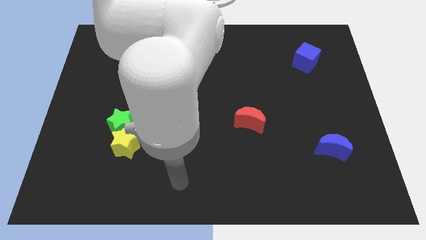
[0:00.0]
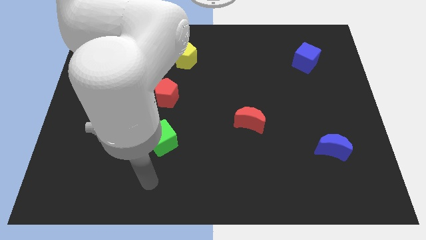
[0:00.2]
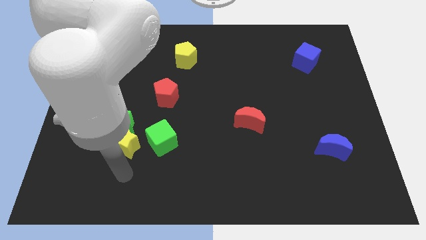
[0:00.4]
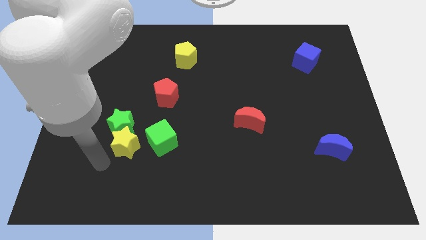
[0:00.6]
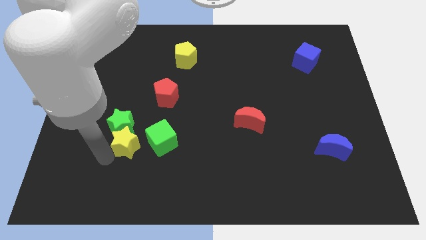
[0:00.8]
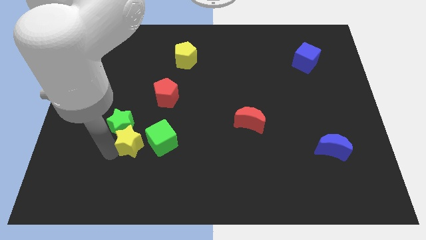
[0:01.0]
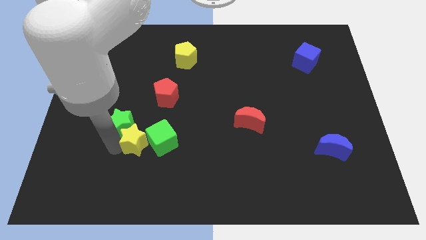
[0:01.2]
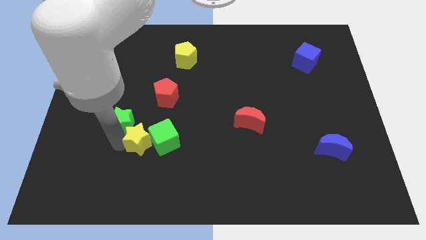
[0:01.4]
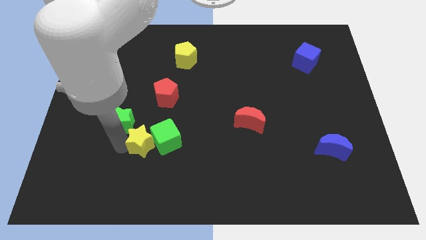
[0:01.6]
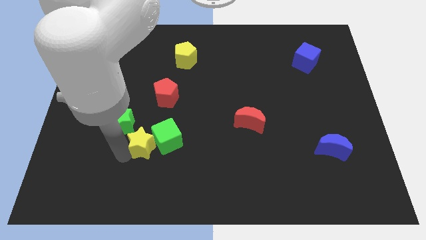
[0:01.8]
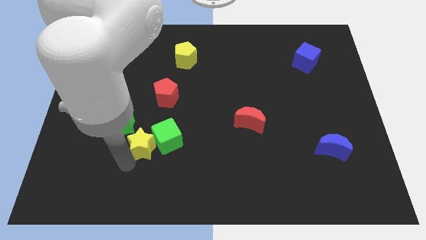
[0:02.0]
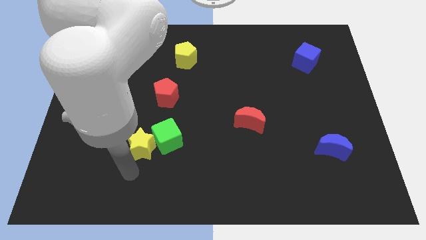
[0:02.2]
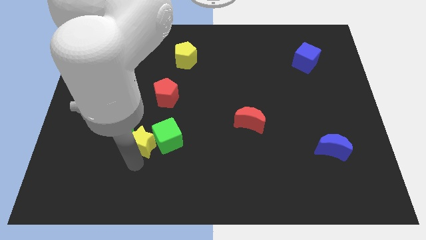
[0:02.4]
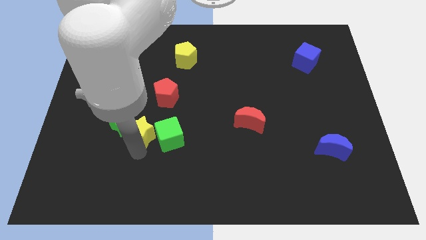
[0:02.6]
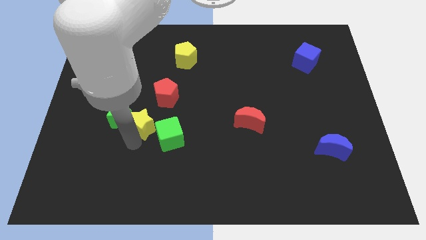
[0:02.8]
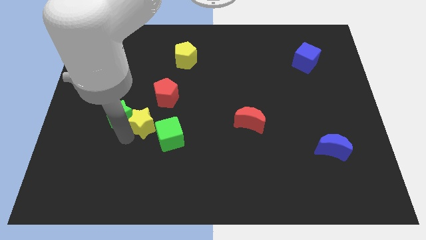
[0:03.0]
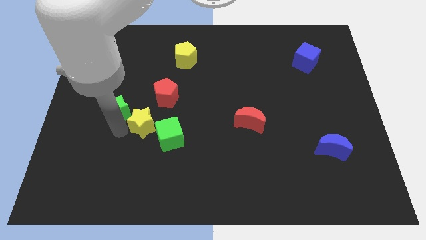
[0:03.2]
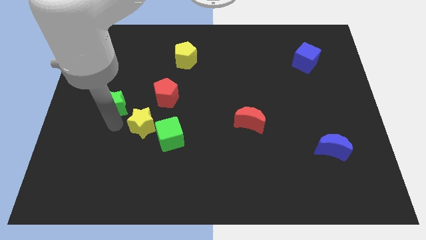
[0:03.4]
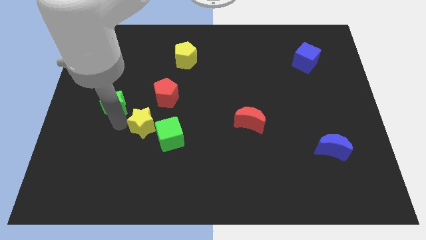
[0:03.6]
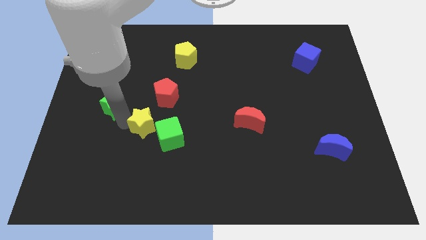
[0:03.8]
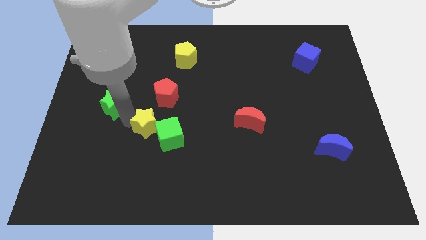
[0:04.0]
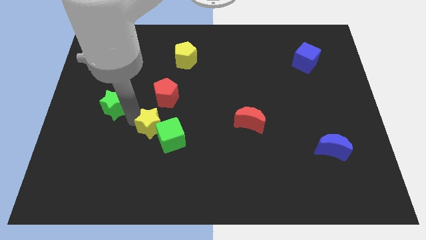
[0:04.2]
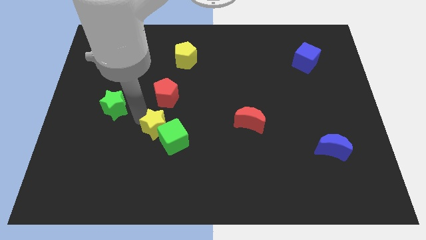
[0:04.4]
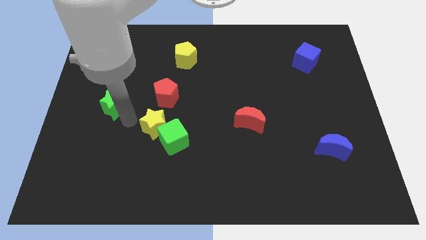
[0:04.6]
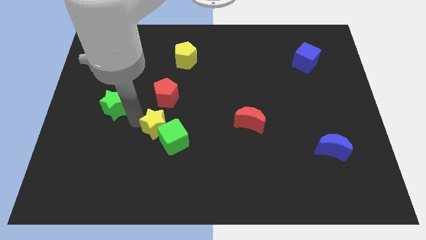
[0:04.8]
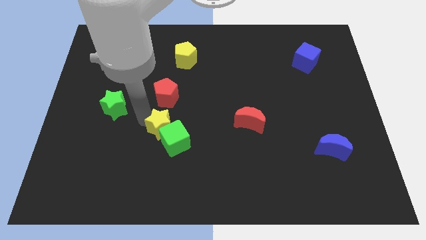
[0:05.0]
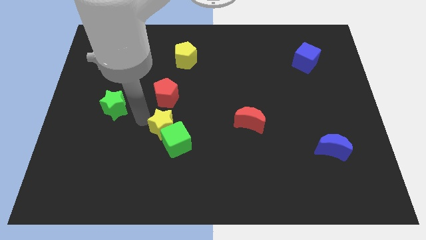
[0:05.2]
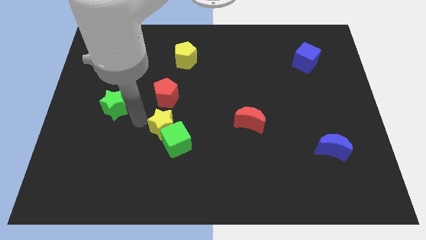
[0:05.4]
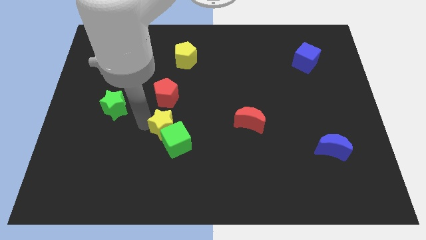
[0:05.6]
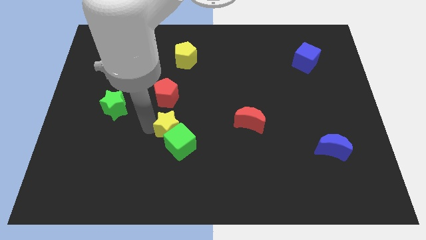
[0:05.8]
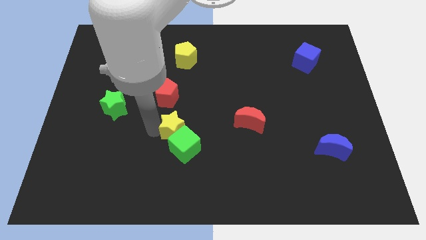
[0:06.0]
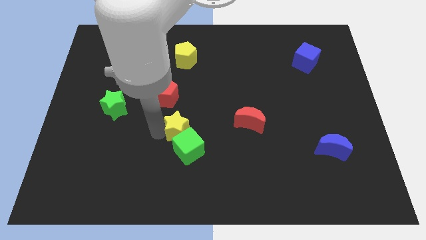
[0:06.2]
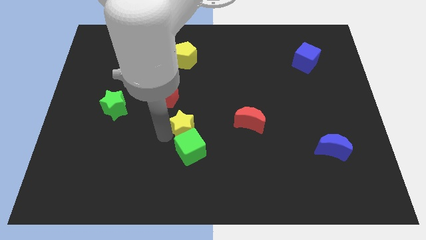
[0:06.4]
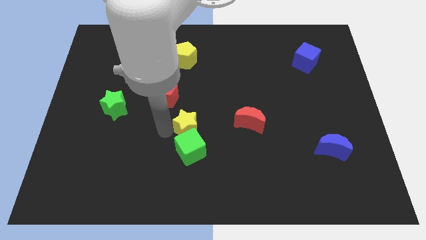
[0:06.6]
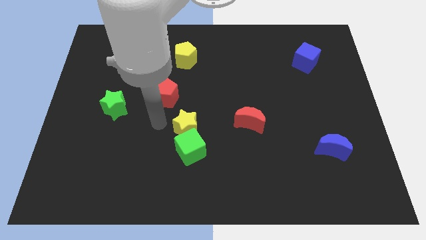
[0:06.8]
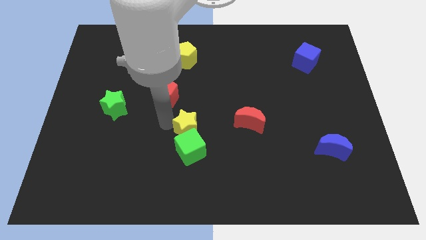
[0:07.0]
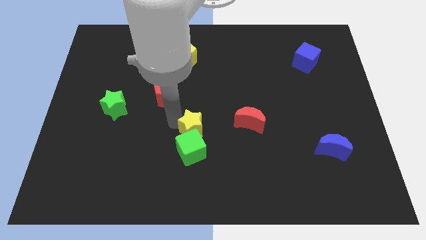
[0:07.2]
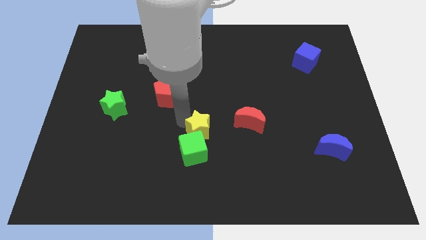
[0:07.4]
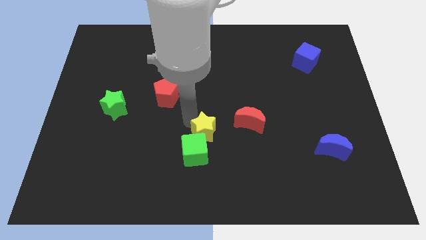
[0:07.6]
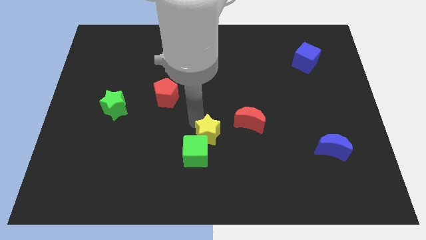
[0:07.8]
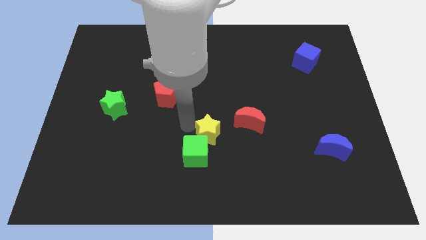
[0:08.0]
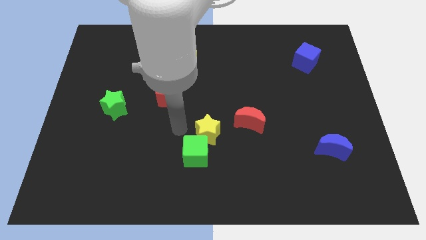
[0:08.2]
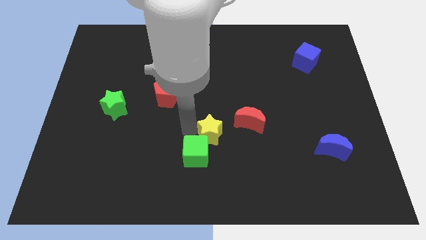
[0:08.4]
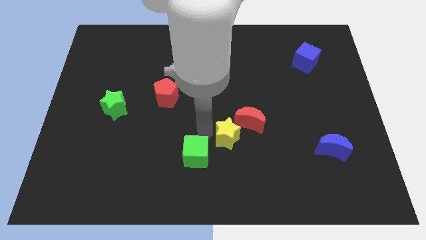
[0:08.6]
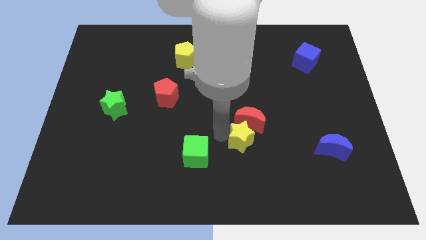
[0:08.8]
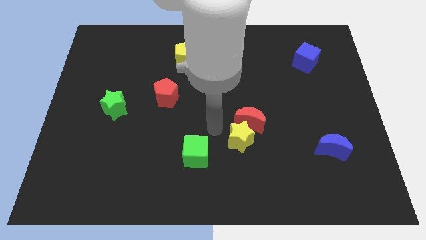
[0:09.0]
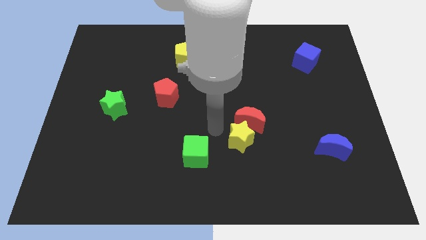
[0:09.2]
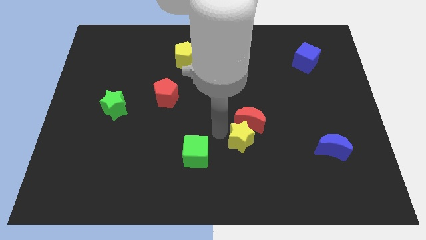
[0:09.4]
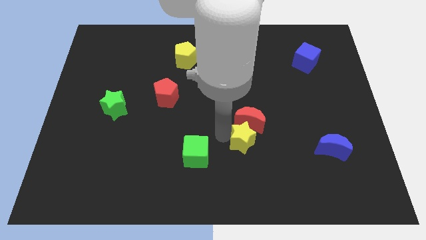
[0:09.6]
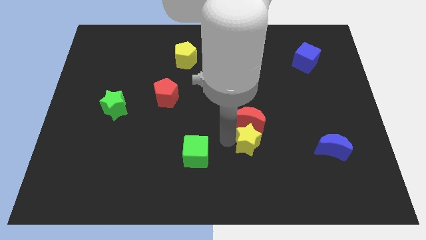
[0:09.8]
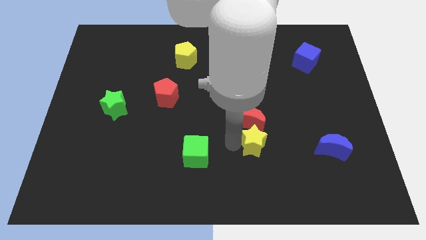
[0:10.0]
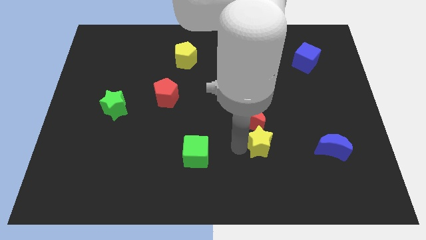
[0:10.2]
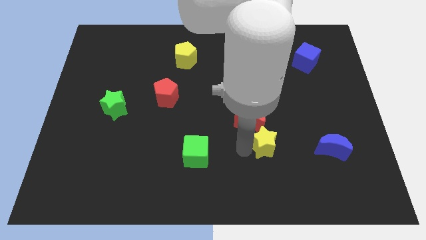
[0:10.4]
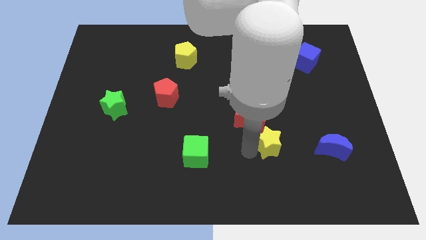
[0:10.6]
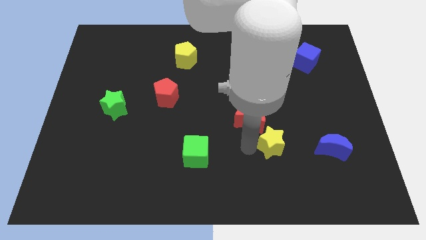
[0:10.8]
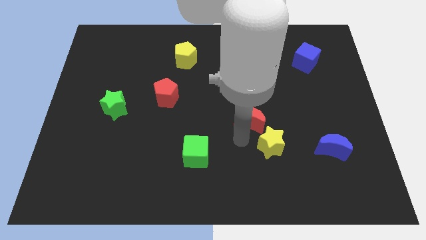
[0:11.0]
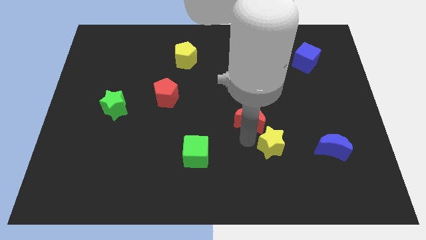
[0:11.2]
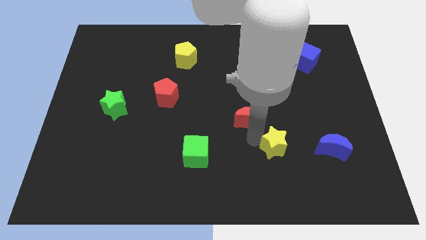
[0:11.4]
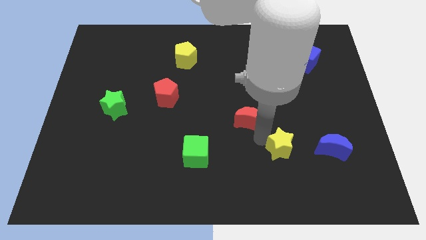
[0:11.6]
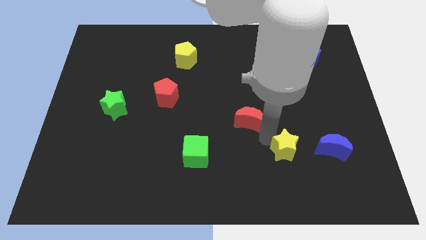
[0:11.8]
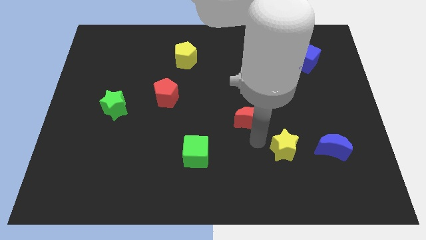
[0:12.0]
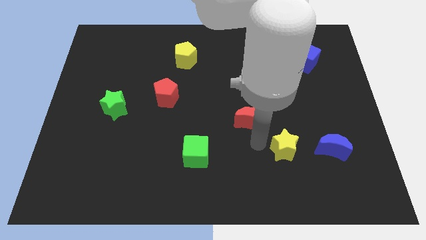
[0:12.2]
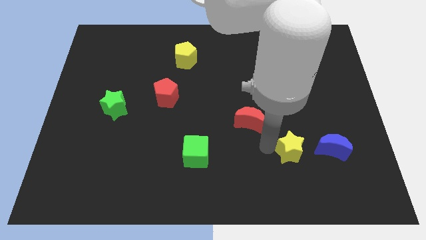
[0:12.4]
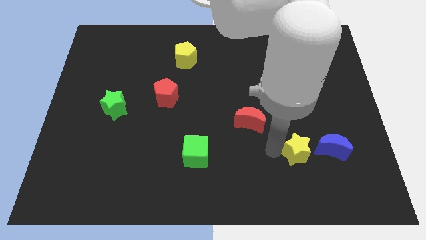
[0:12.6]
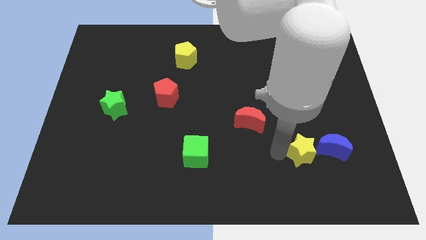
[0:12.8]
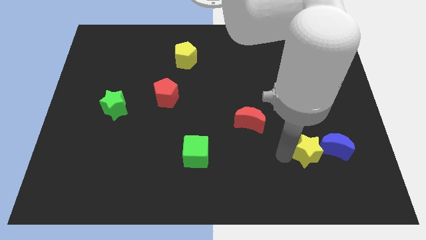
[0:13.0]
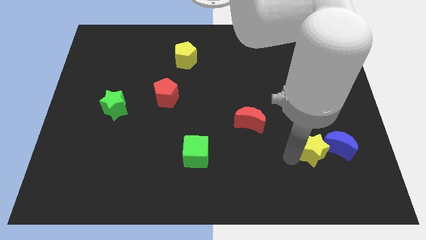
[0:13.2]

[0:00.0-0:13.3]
put the yellow star next to the blue moon
